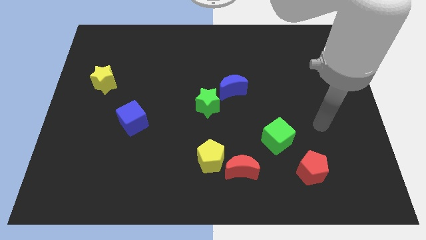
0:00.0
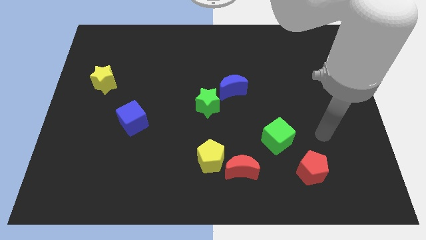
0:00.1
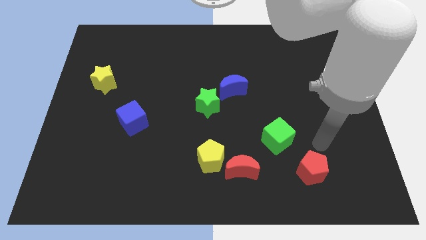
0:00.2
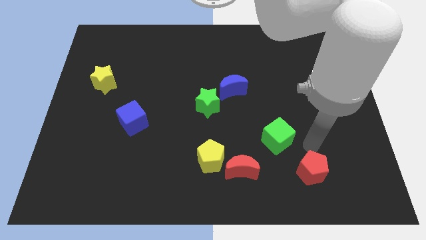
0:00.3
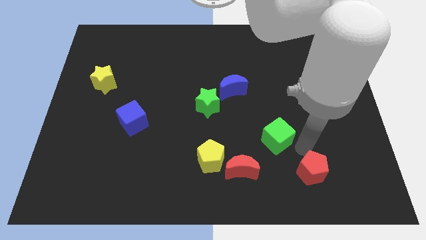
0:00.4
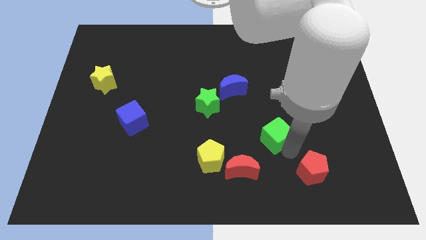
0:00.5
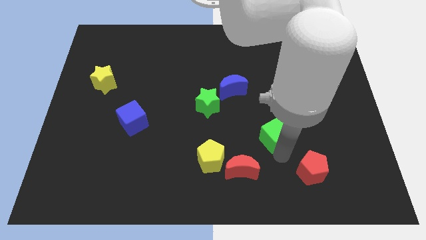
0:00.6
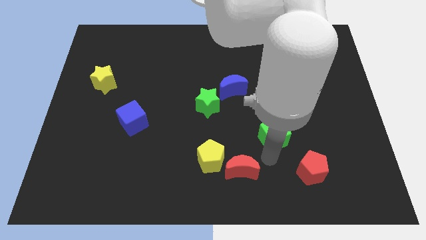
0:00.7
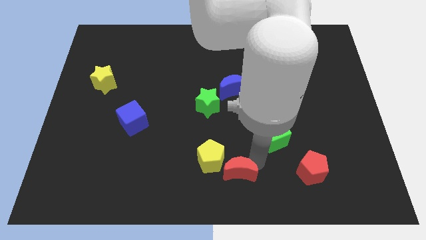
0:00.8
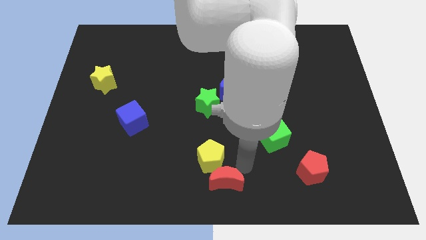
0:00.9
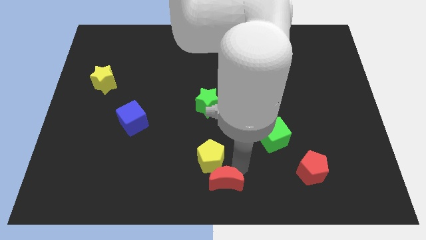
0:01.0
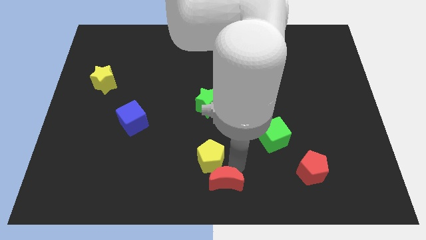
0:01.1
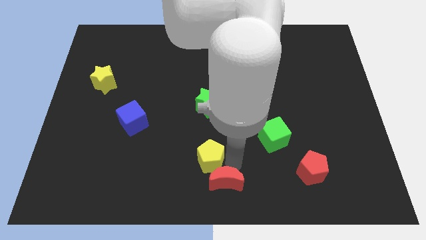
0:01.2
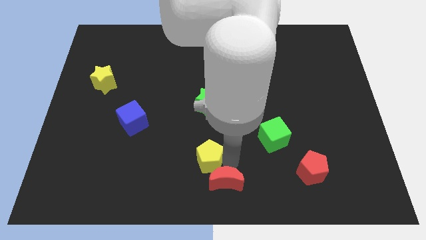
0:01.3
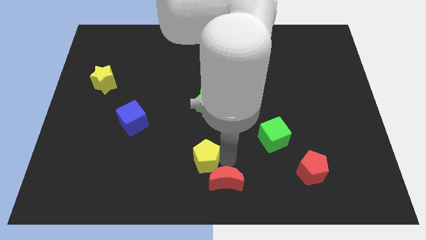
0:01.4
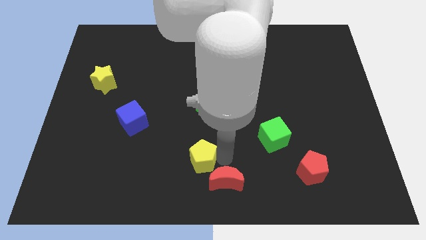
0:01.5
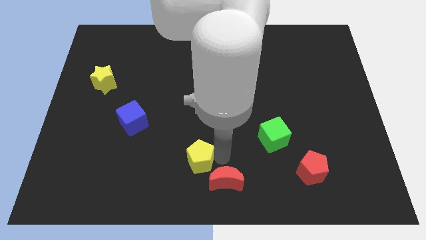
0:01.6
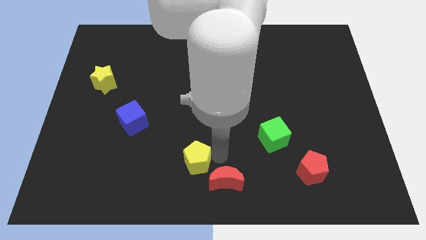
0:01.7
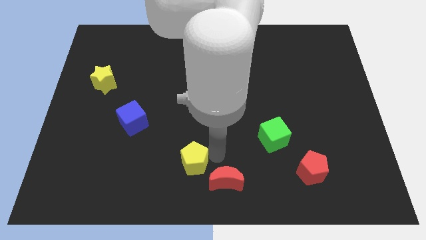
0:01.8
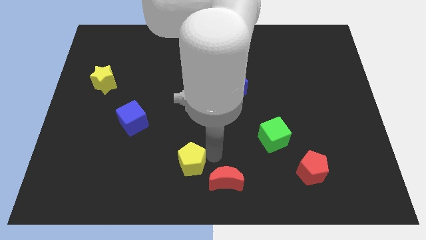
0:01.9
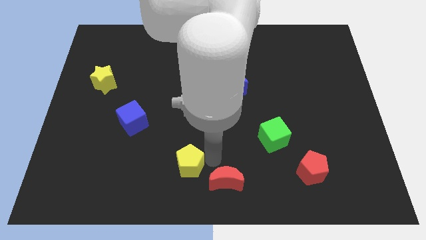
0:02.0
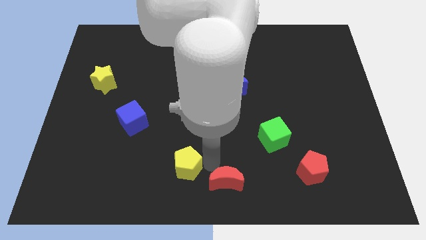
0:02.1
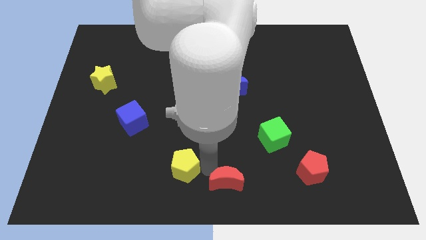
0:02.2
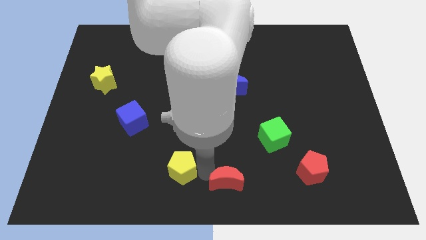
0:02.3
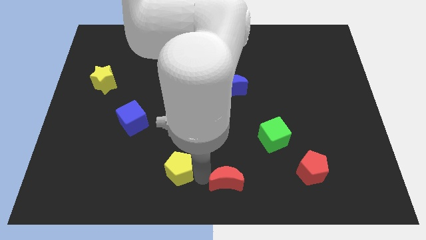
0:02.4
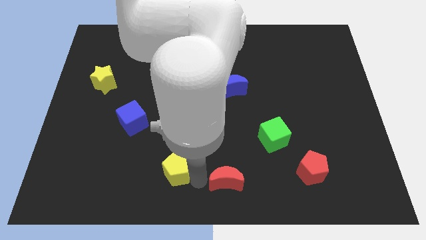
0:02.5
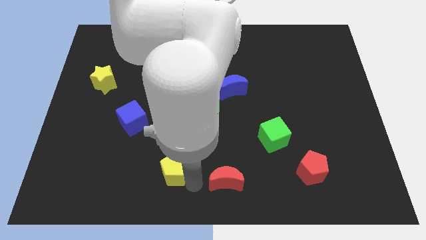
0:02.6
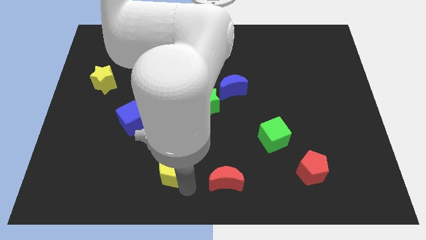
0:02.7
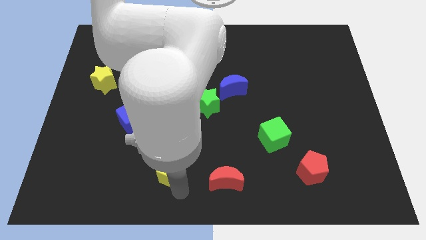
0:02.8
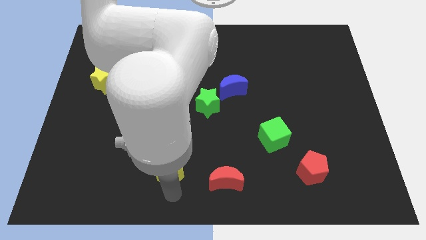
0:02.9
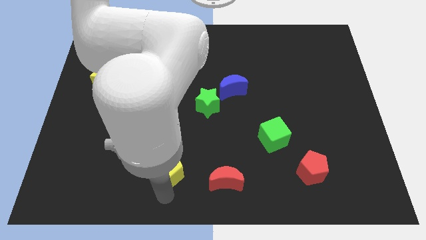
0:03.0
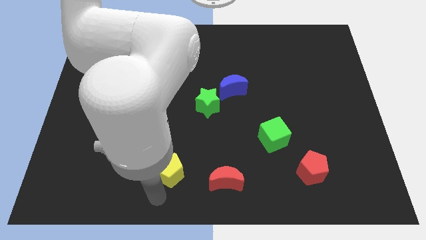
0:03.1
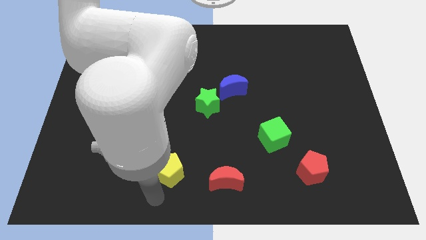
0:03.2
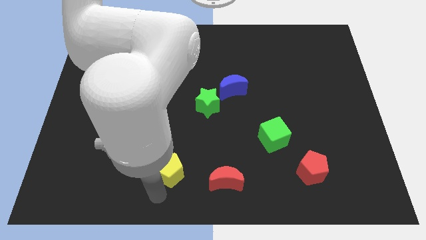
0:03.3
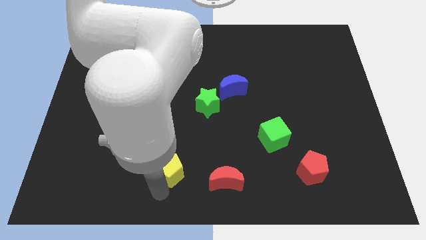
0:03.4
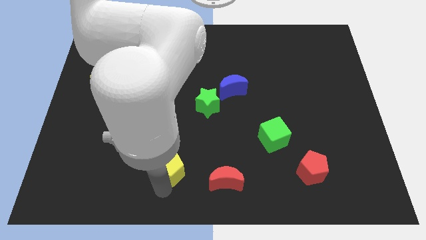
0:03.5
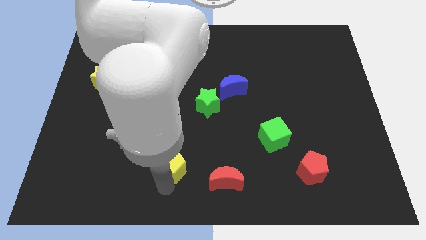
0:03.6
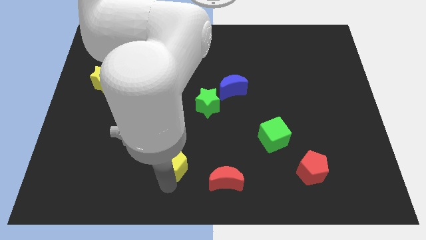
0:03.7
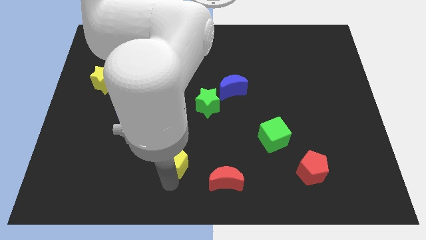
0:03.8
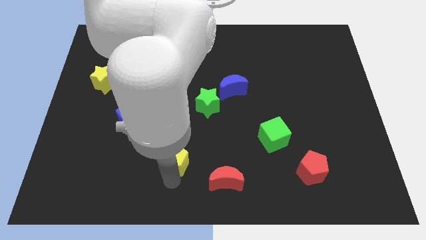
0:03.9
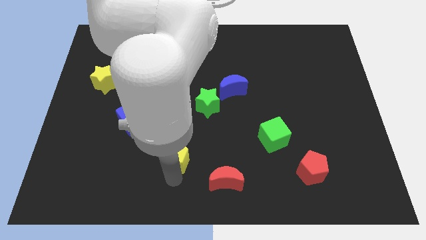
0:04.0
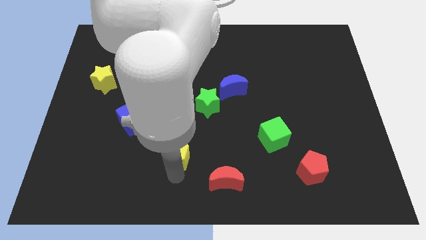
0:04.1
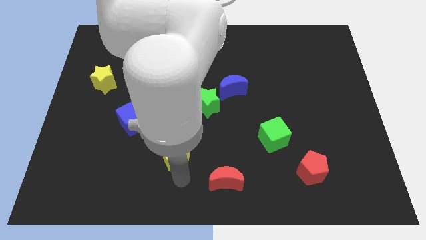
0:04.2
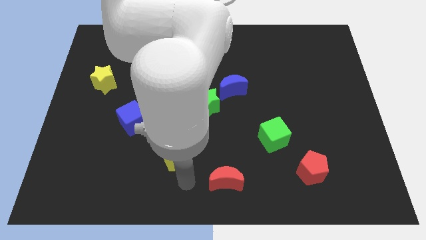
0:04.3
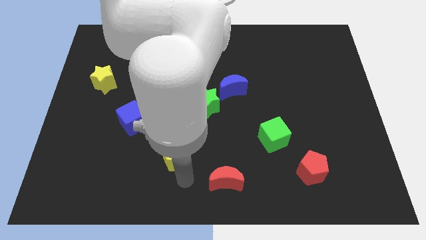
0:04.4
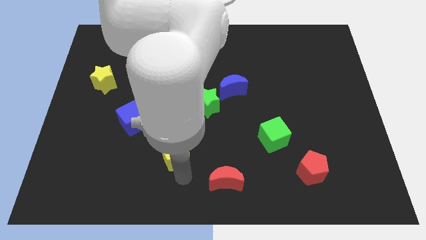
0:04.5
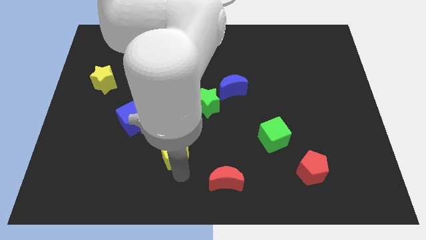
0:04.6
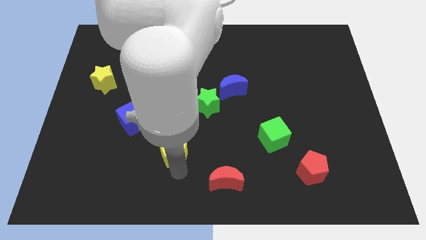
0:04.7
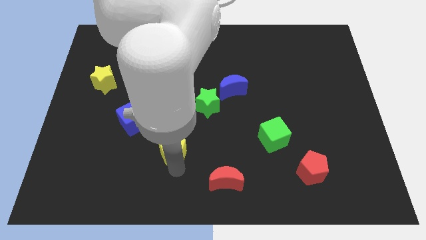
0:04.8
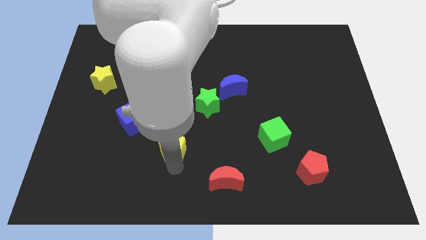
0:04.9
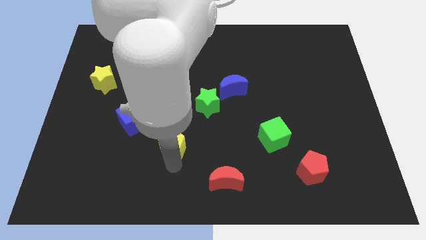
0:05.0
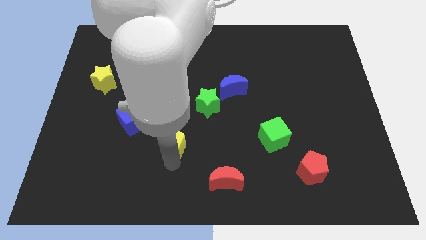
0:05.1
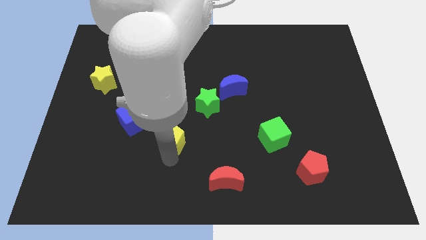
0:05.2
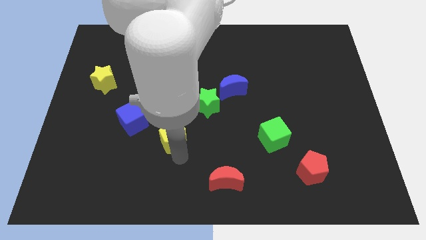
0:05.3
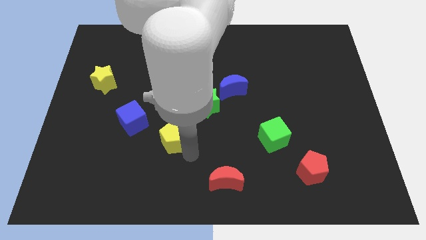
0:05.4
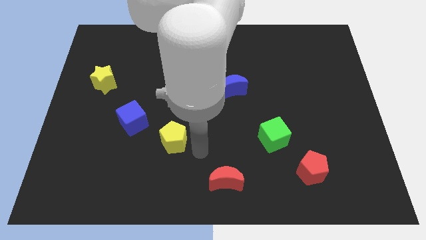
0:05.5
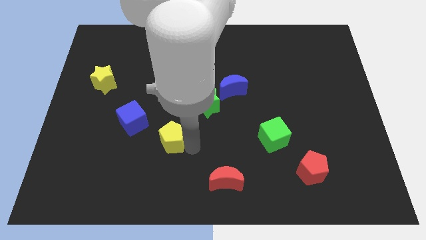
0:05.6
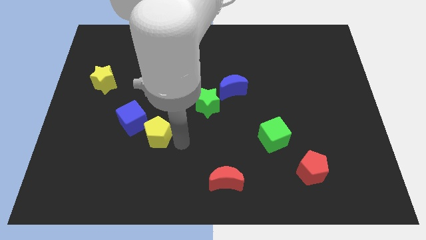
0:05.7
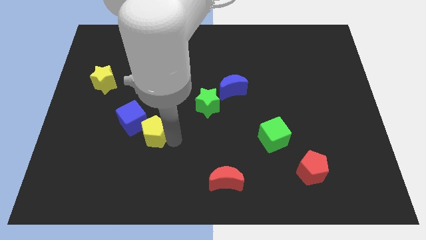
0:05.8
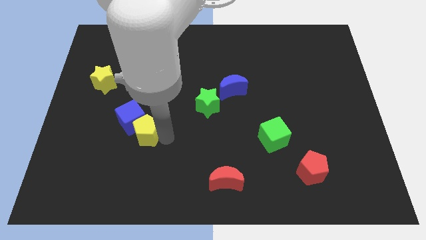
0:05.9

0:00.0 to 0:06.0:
move the yellow pentagon close to the blue cube

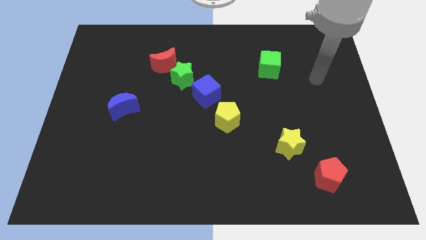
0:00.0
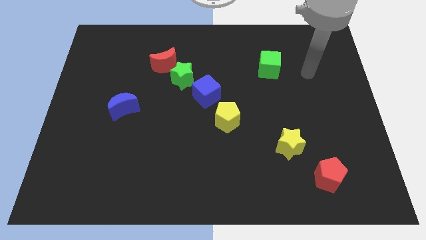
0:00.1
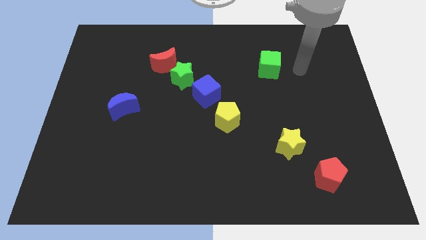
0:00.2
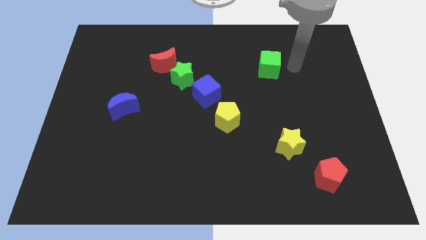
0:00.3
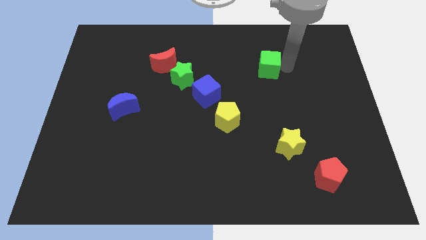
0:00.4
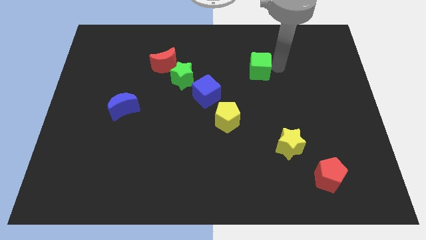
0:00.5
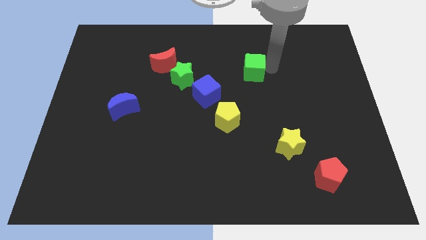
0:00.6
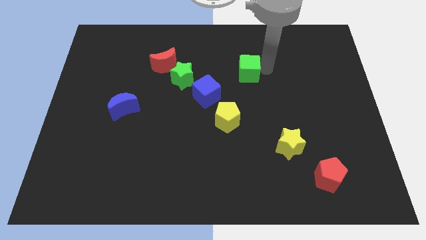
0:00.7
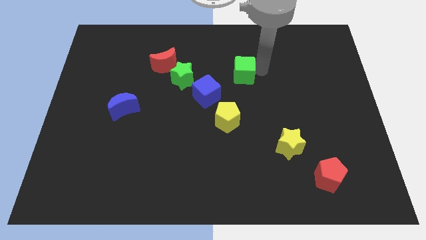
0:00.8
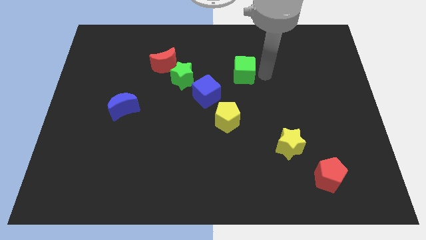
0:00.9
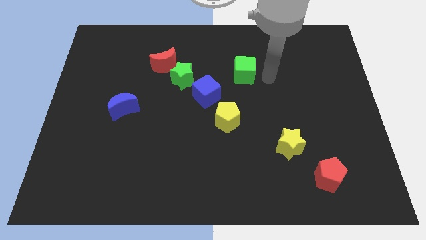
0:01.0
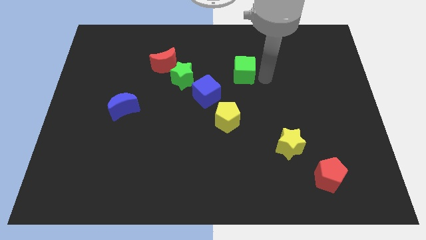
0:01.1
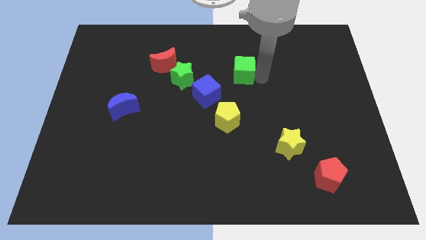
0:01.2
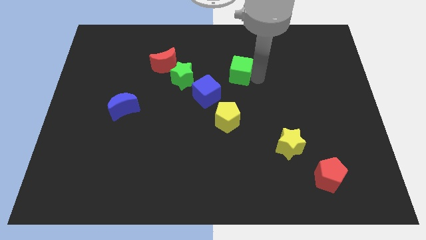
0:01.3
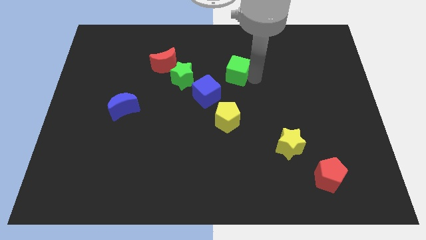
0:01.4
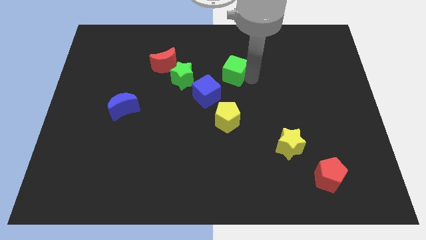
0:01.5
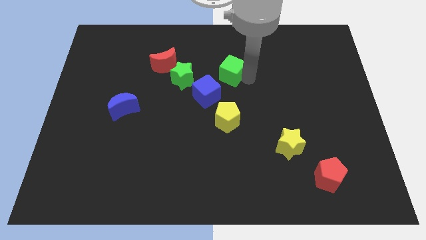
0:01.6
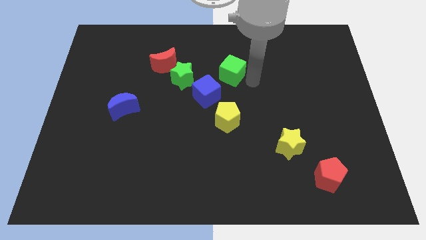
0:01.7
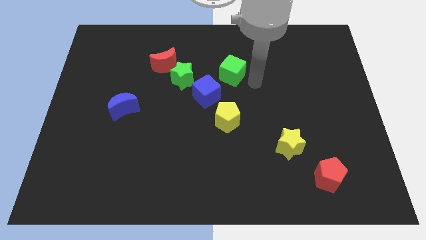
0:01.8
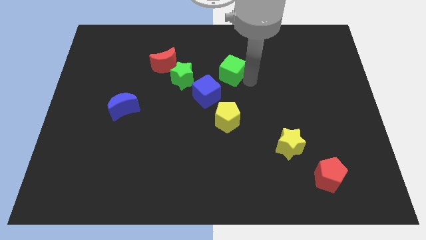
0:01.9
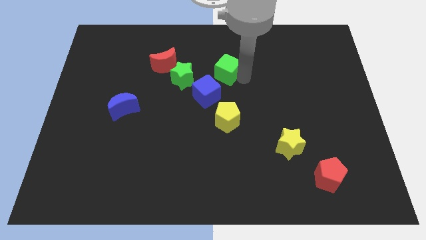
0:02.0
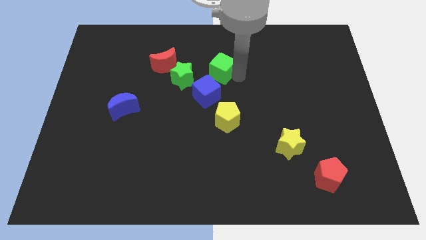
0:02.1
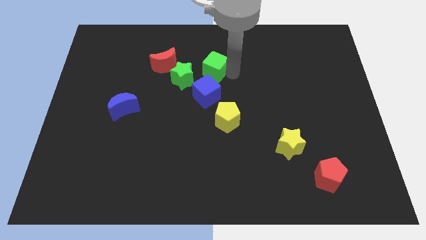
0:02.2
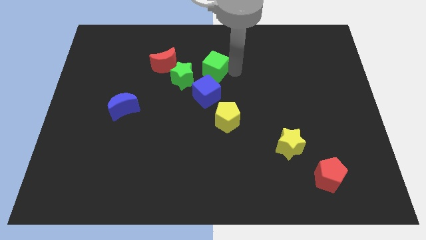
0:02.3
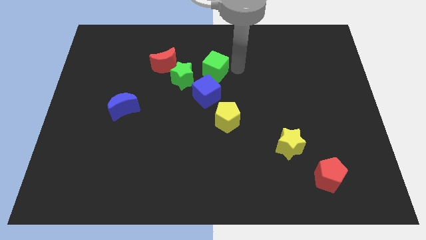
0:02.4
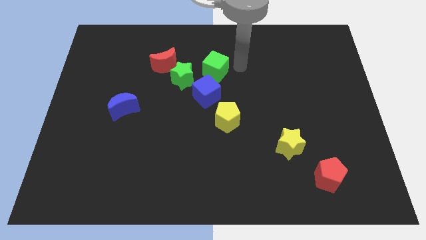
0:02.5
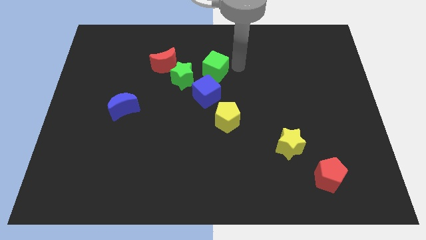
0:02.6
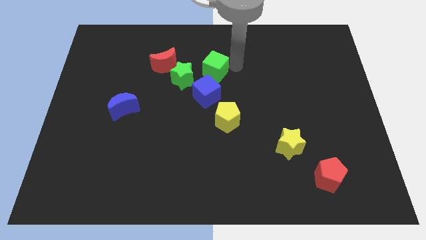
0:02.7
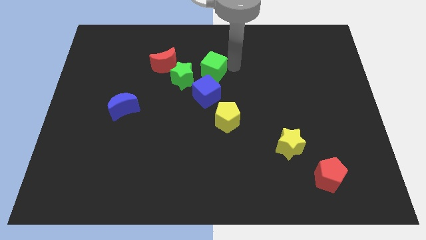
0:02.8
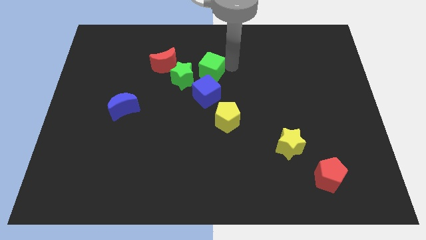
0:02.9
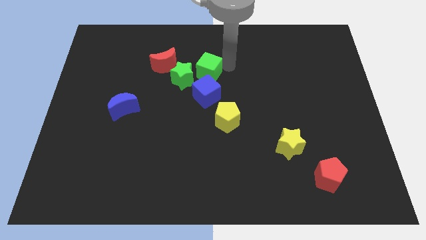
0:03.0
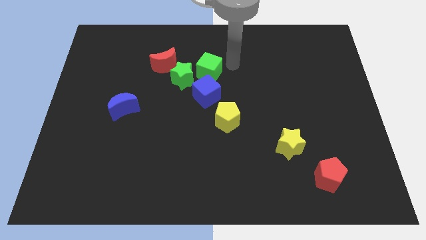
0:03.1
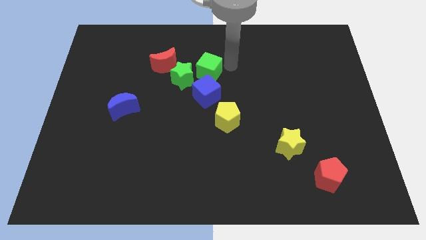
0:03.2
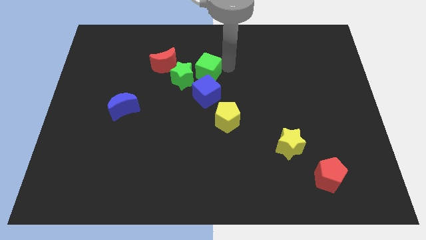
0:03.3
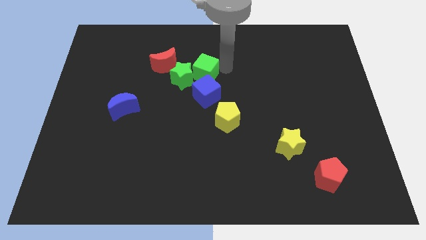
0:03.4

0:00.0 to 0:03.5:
slide the green cube close to the green star
